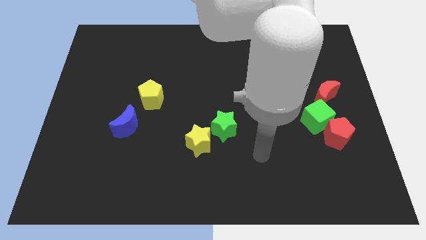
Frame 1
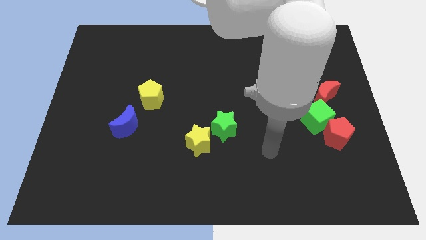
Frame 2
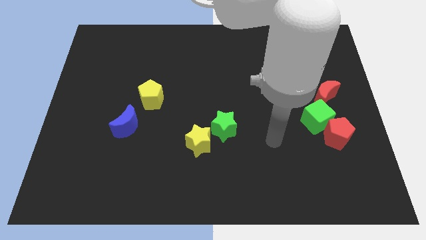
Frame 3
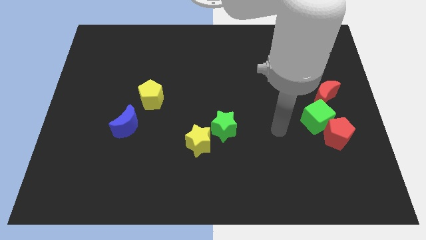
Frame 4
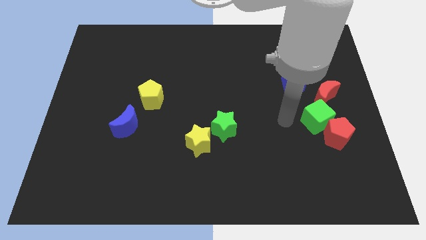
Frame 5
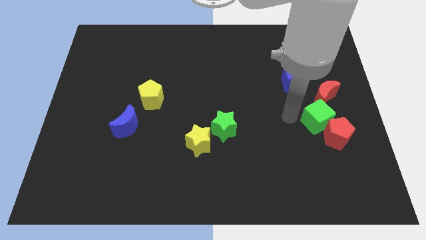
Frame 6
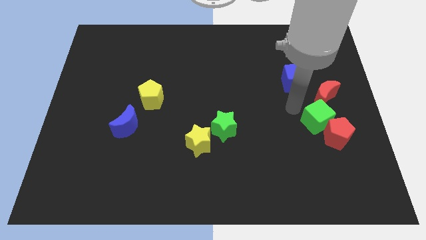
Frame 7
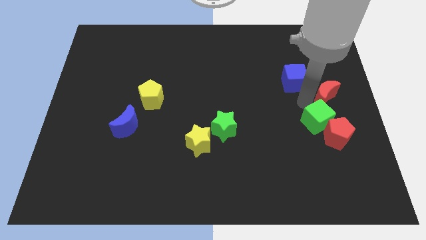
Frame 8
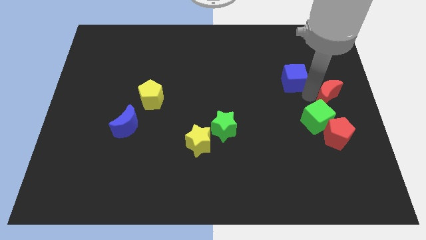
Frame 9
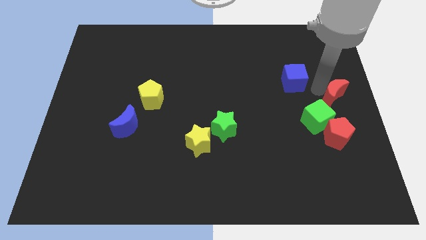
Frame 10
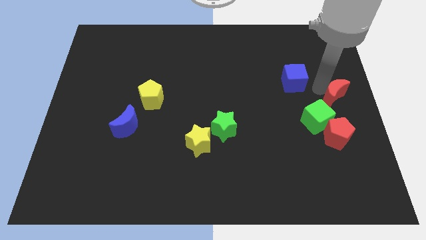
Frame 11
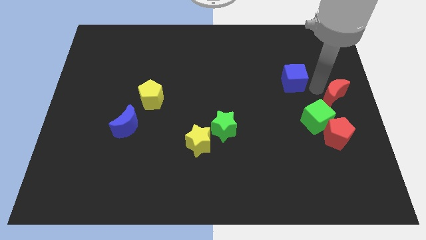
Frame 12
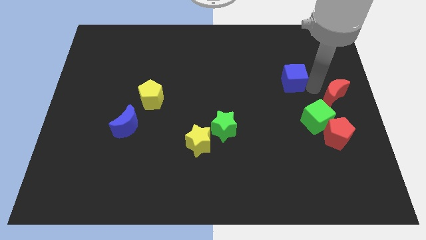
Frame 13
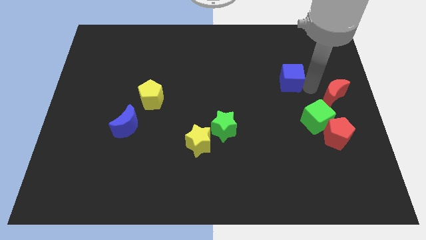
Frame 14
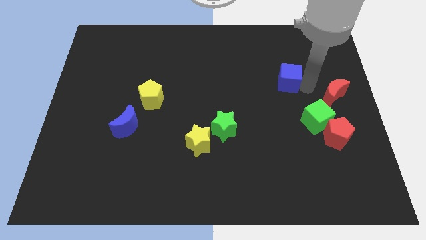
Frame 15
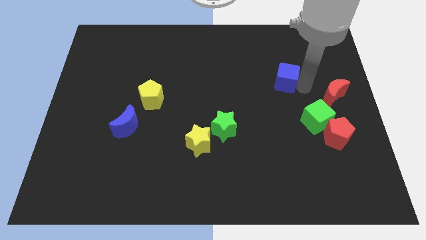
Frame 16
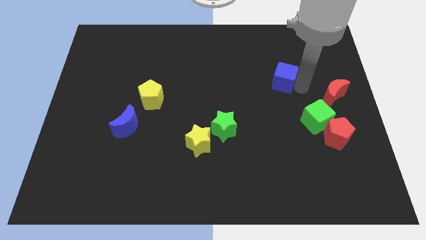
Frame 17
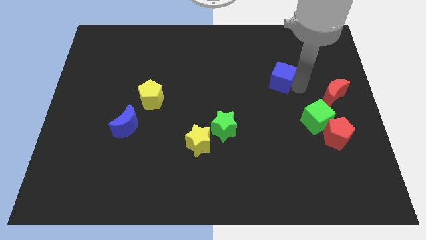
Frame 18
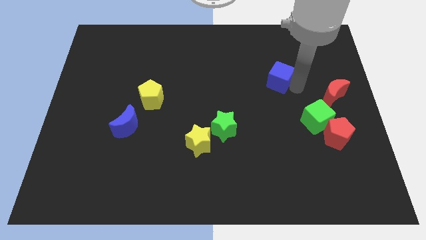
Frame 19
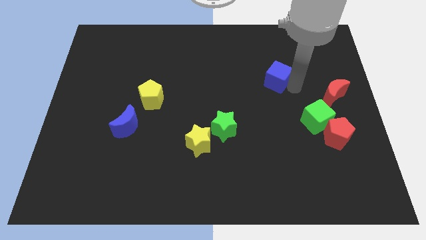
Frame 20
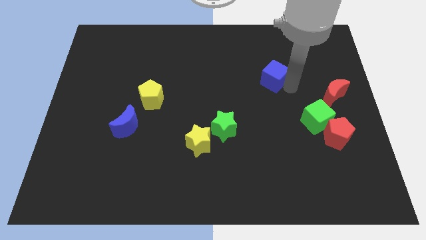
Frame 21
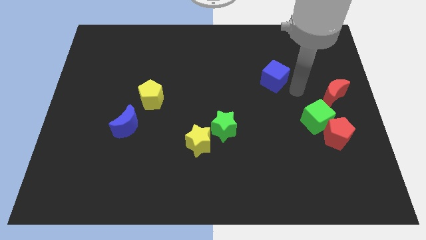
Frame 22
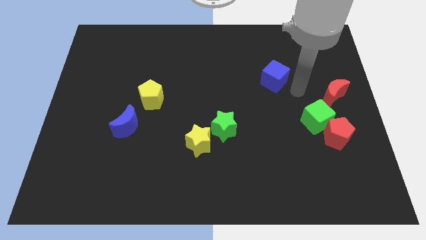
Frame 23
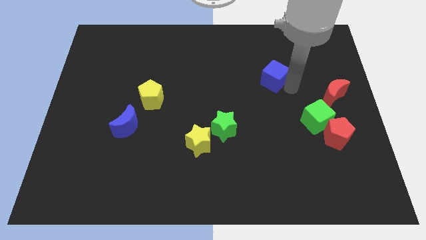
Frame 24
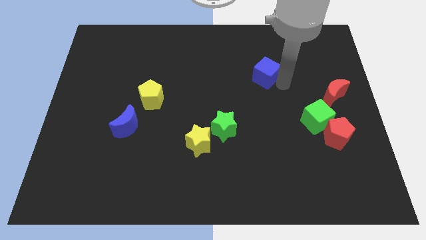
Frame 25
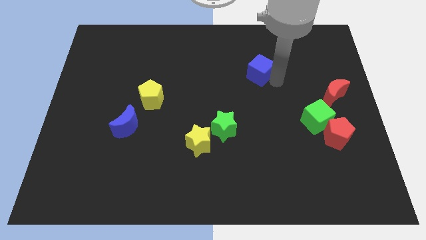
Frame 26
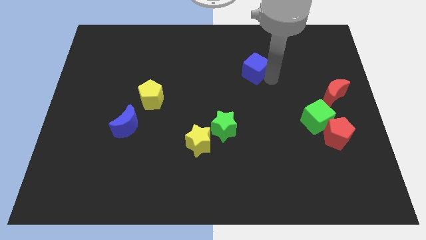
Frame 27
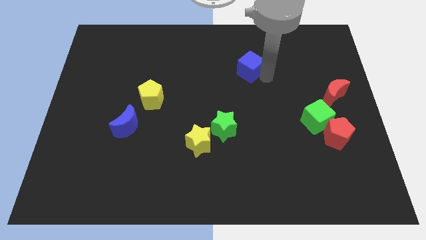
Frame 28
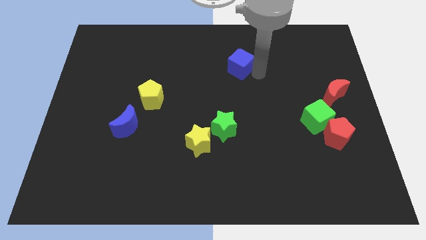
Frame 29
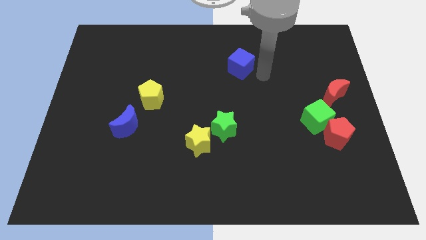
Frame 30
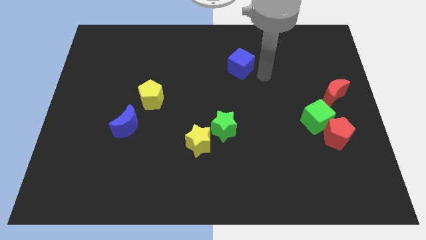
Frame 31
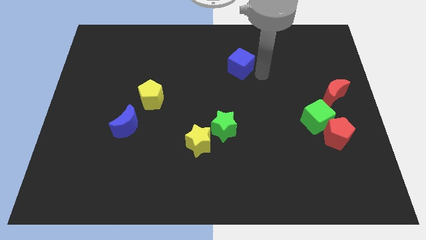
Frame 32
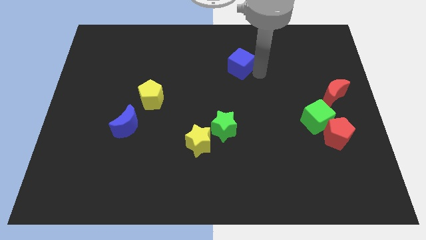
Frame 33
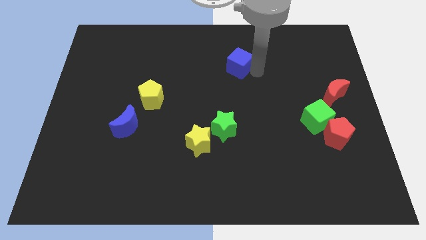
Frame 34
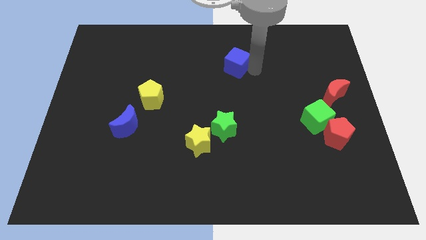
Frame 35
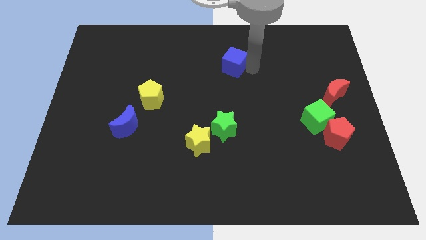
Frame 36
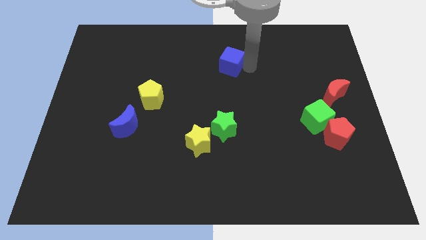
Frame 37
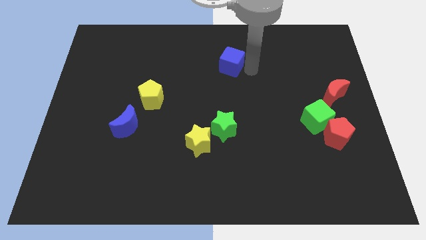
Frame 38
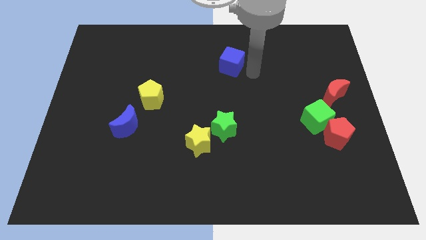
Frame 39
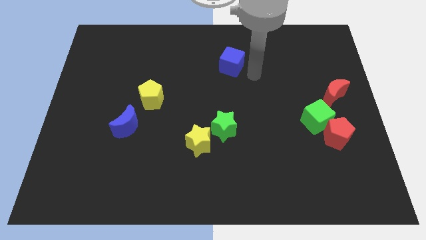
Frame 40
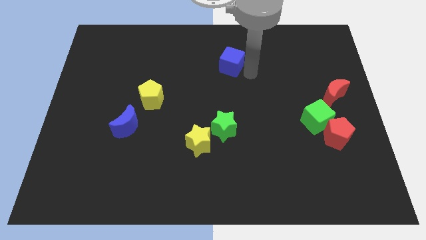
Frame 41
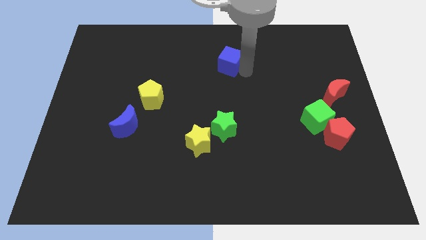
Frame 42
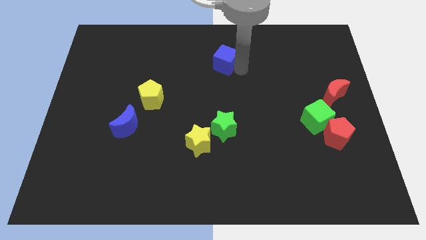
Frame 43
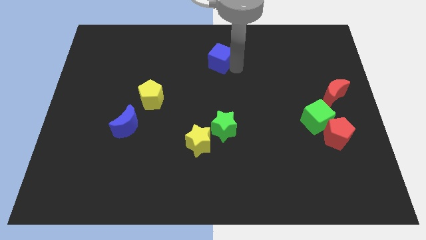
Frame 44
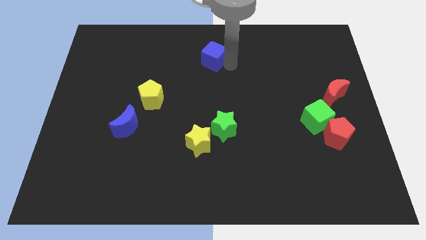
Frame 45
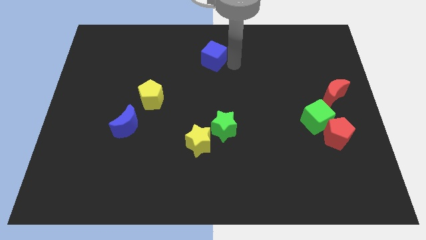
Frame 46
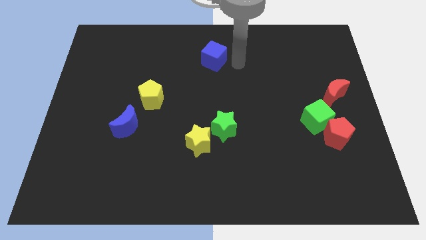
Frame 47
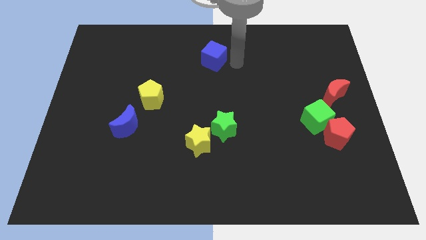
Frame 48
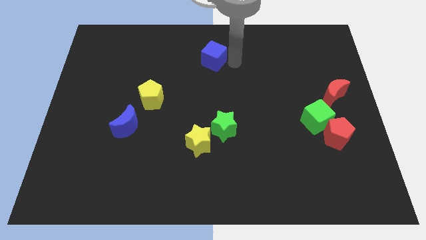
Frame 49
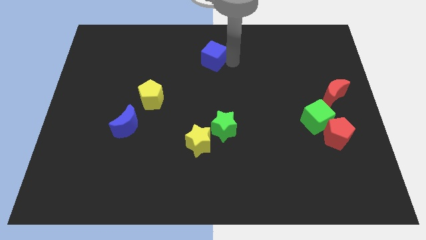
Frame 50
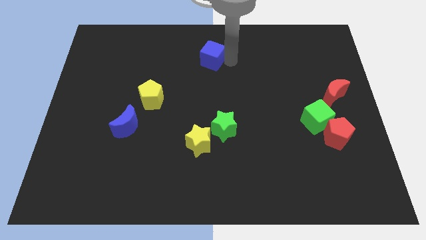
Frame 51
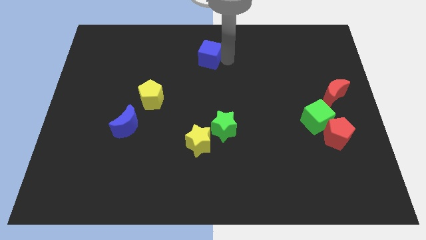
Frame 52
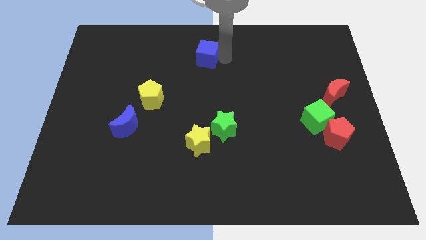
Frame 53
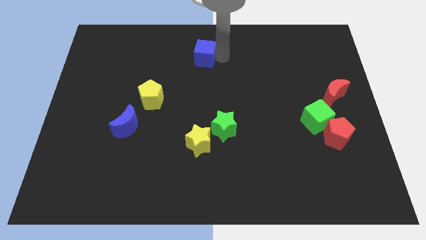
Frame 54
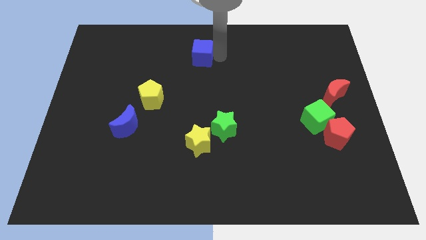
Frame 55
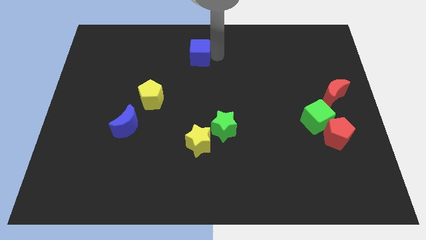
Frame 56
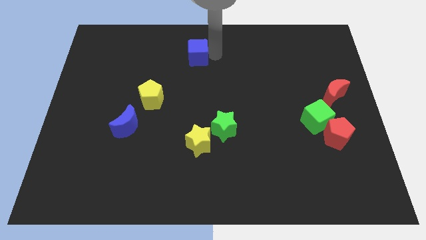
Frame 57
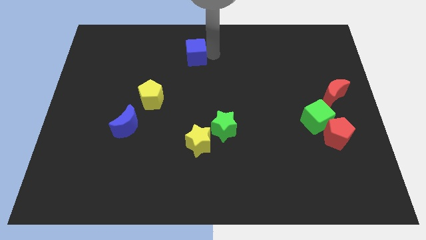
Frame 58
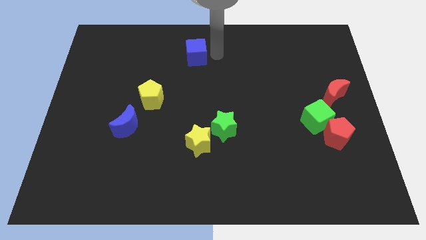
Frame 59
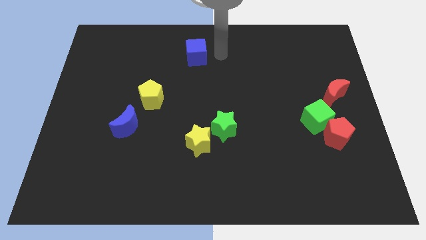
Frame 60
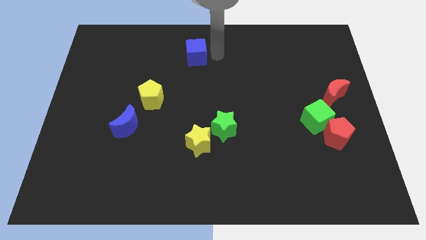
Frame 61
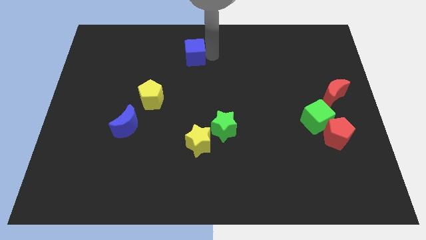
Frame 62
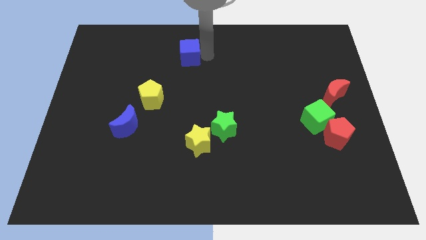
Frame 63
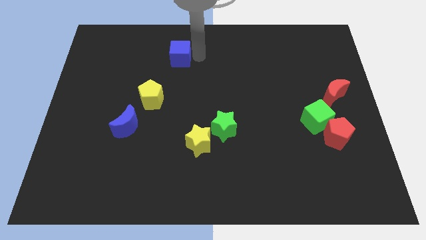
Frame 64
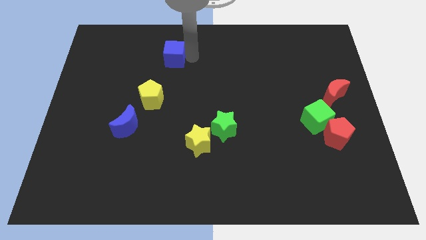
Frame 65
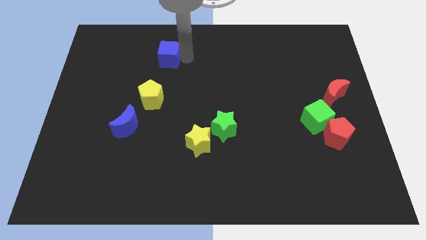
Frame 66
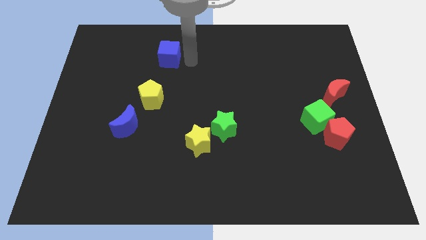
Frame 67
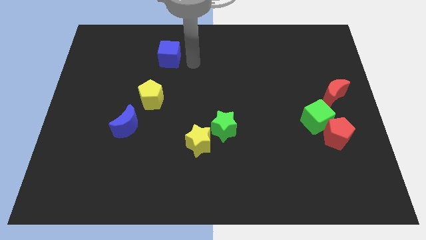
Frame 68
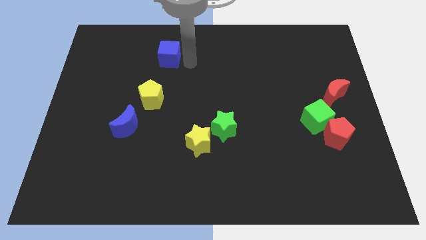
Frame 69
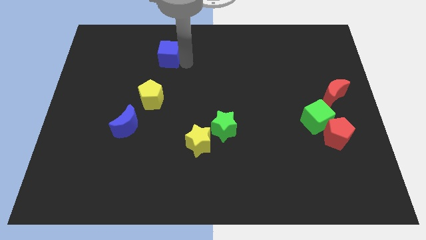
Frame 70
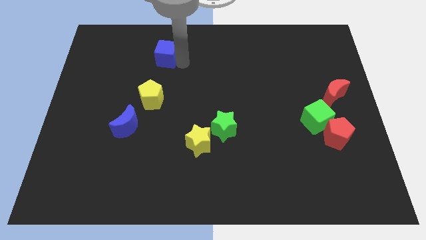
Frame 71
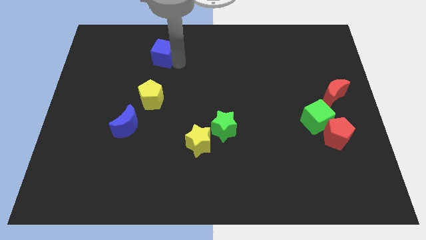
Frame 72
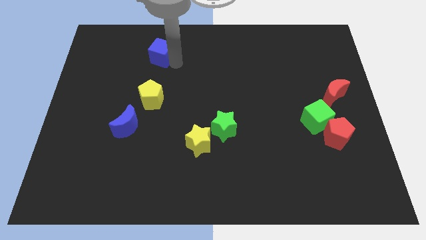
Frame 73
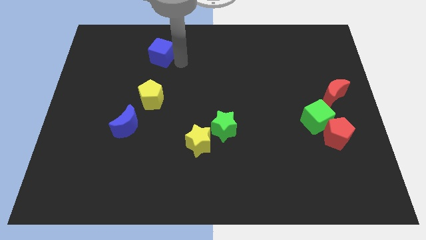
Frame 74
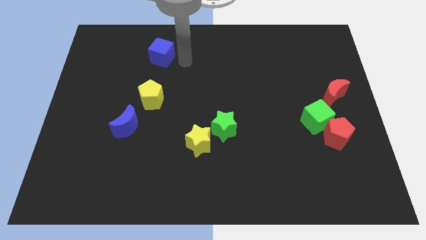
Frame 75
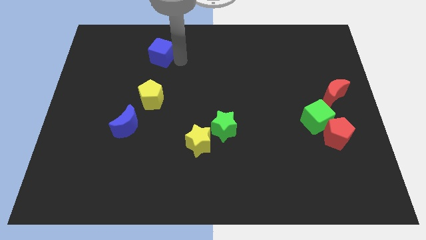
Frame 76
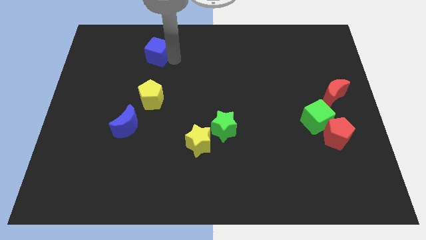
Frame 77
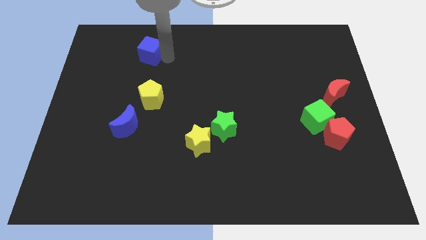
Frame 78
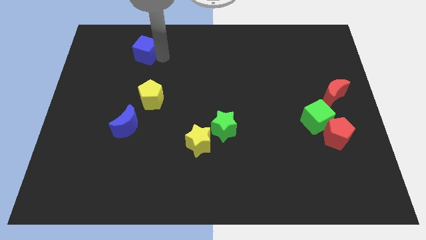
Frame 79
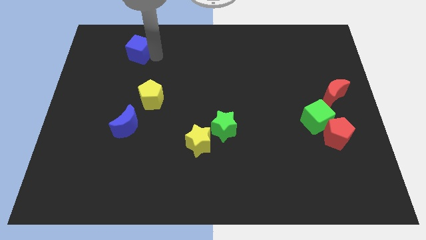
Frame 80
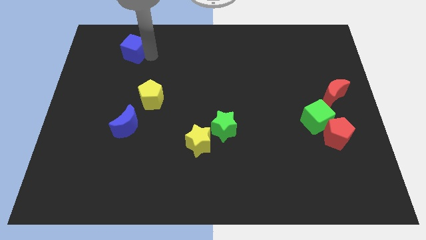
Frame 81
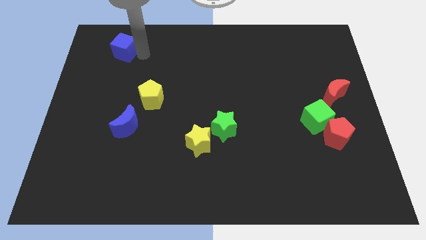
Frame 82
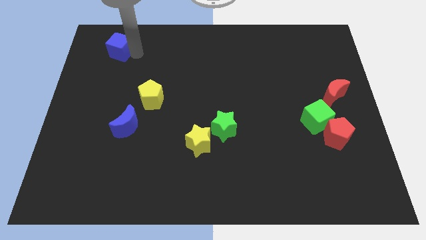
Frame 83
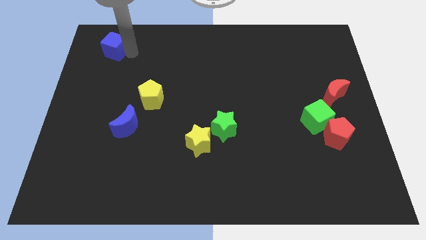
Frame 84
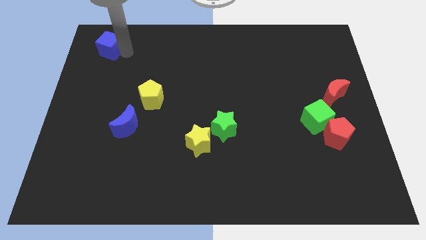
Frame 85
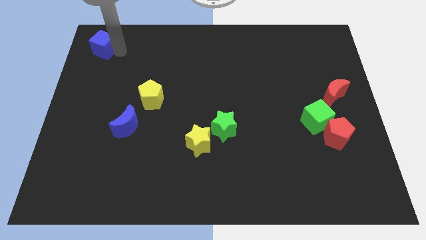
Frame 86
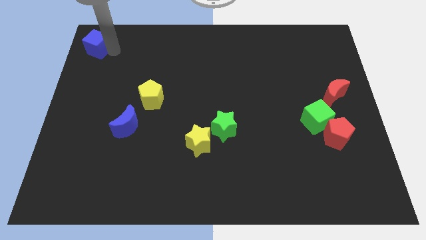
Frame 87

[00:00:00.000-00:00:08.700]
put the blue cube to the top left corner
